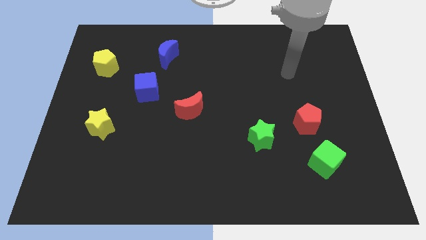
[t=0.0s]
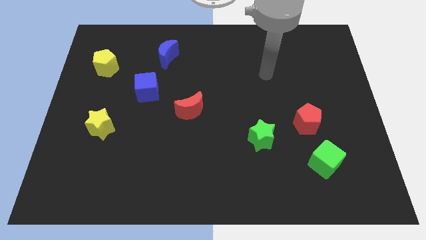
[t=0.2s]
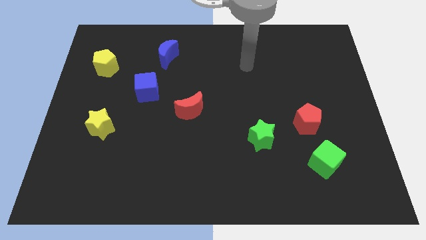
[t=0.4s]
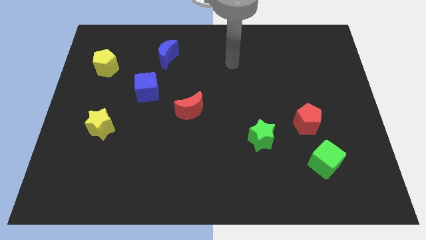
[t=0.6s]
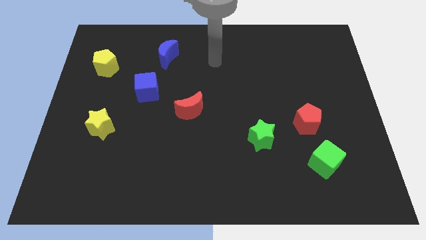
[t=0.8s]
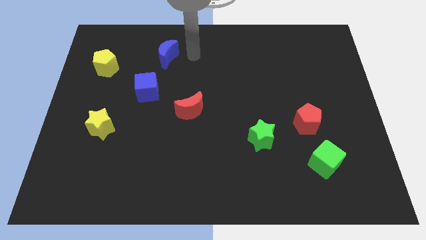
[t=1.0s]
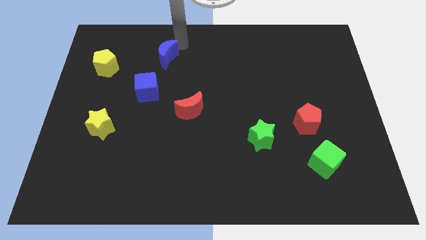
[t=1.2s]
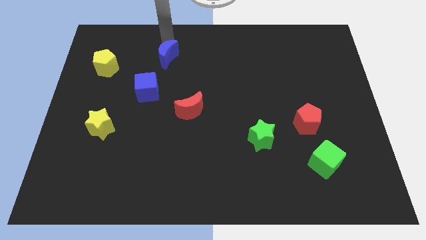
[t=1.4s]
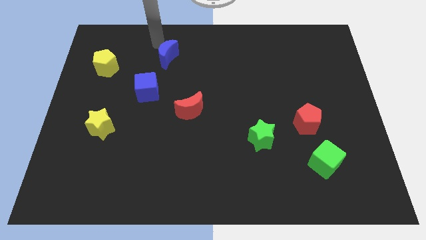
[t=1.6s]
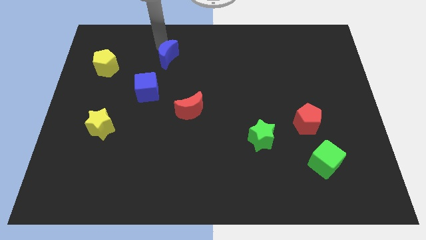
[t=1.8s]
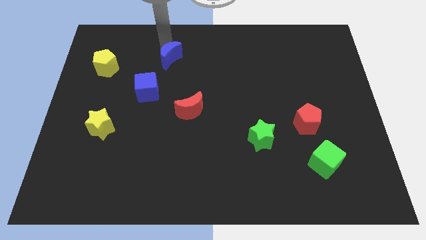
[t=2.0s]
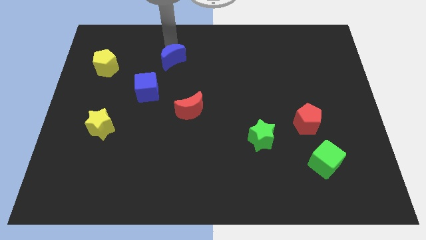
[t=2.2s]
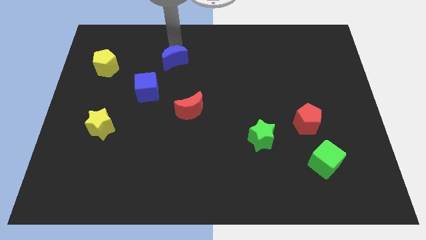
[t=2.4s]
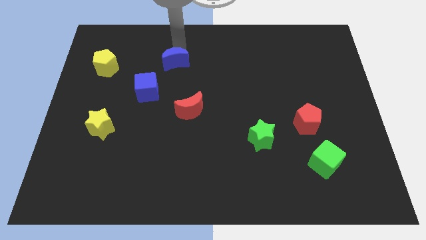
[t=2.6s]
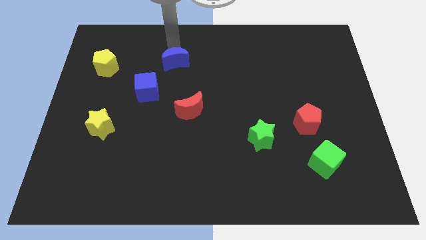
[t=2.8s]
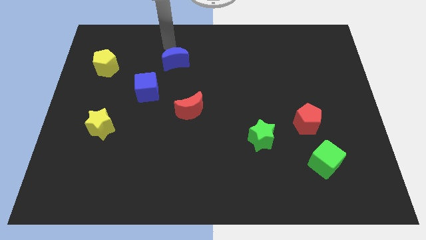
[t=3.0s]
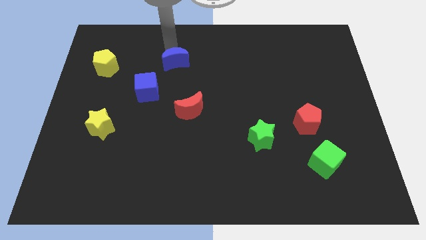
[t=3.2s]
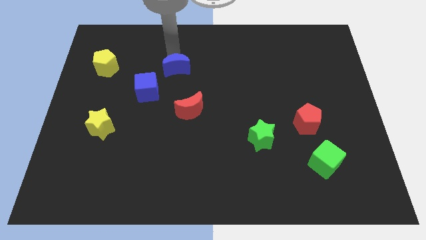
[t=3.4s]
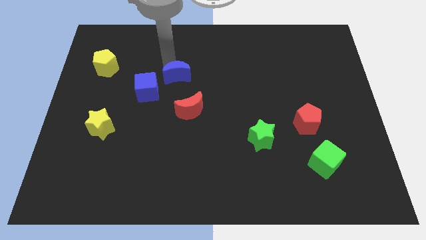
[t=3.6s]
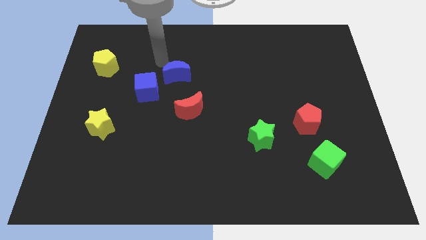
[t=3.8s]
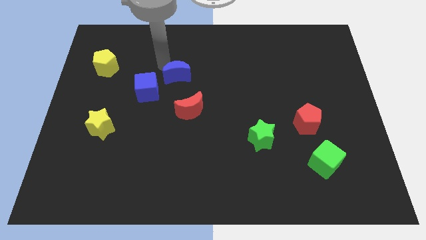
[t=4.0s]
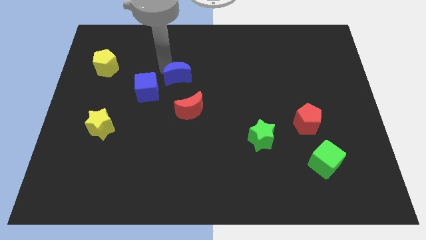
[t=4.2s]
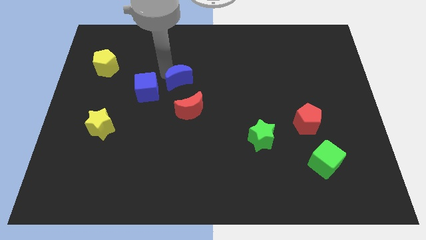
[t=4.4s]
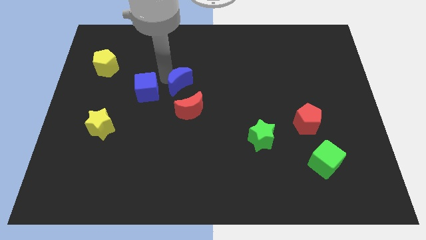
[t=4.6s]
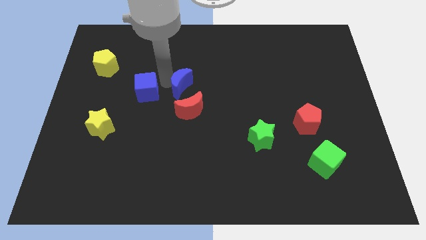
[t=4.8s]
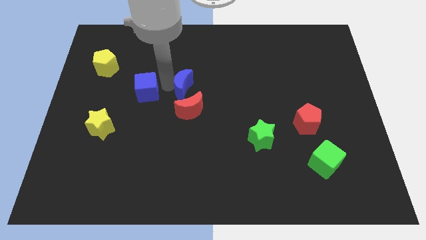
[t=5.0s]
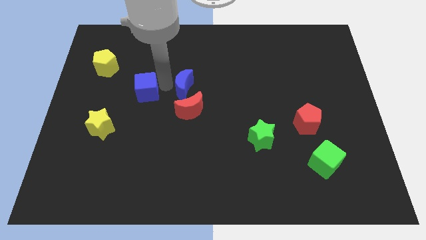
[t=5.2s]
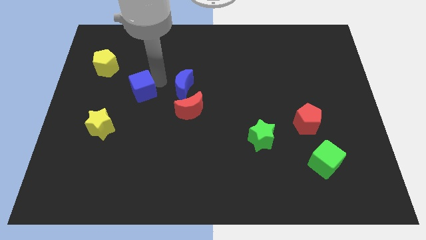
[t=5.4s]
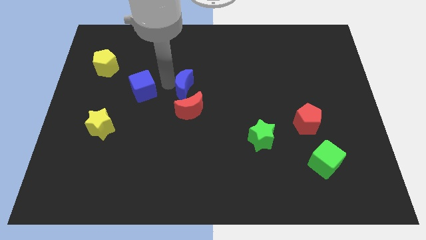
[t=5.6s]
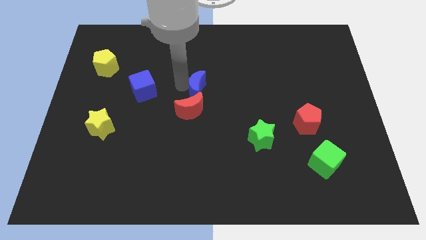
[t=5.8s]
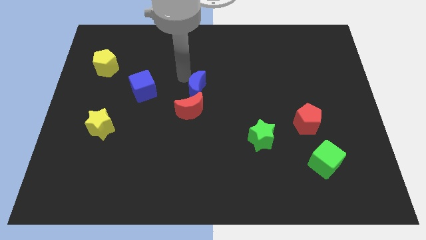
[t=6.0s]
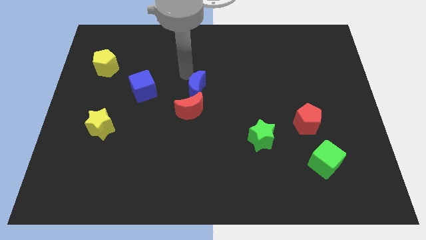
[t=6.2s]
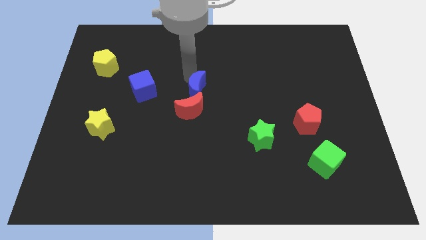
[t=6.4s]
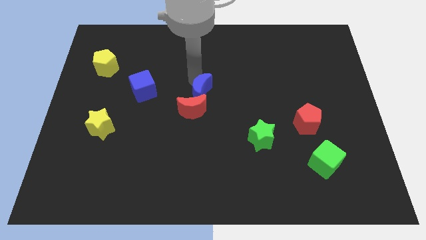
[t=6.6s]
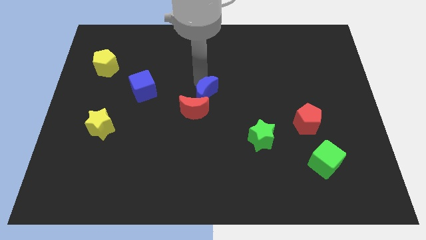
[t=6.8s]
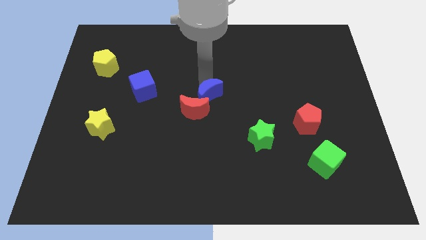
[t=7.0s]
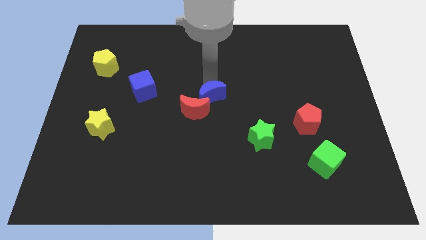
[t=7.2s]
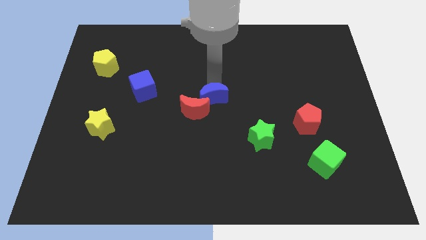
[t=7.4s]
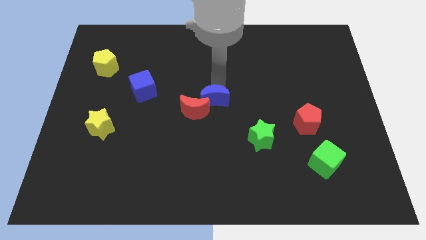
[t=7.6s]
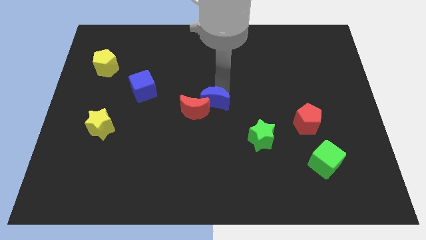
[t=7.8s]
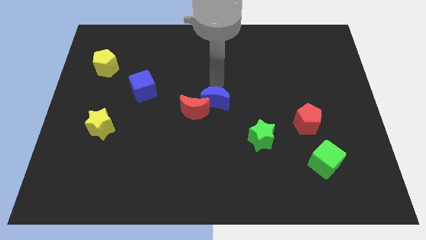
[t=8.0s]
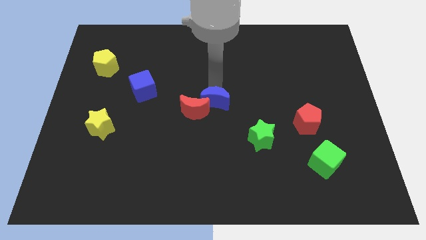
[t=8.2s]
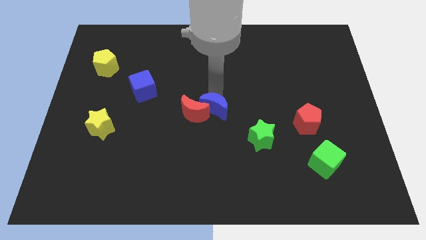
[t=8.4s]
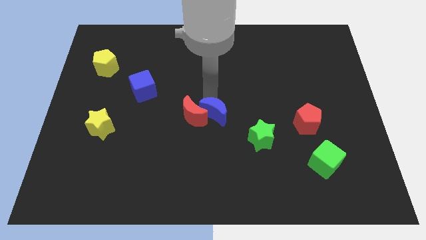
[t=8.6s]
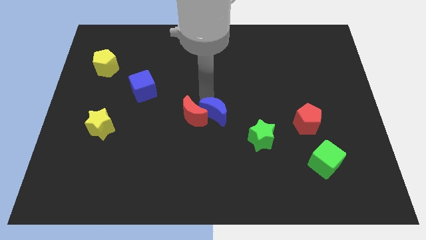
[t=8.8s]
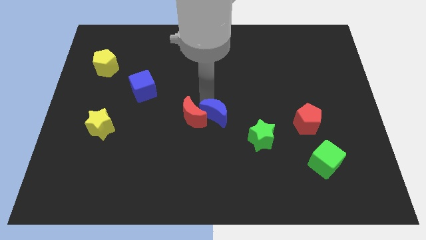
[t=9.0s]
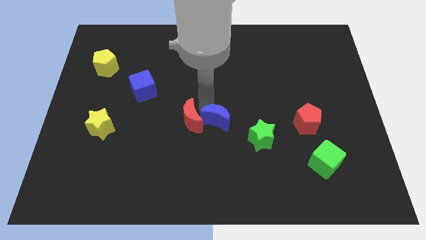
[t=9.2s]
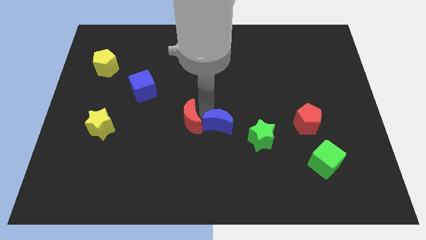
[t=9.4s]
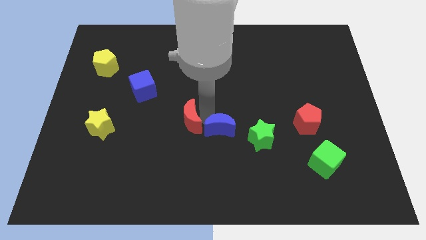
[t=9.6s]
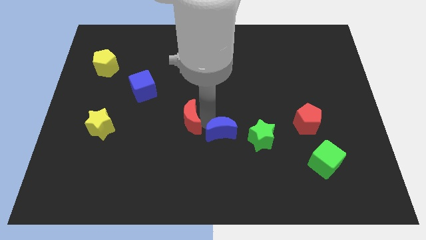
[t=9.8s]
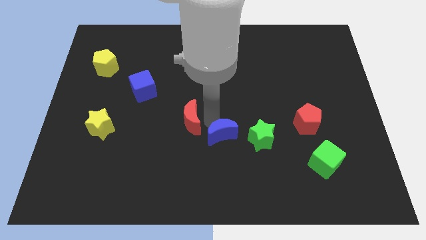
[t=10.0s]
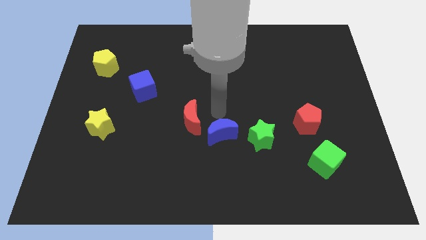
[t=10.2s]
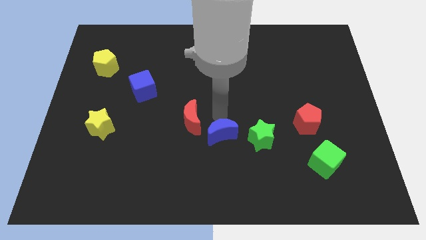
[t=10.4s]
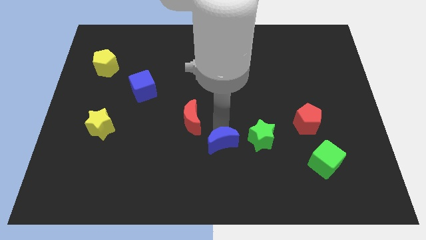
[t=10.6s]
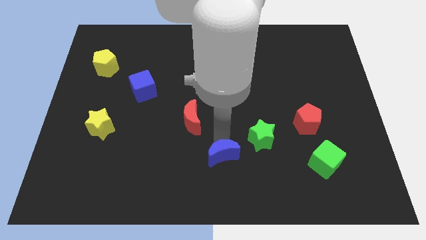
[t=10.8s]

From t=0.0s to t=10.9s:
push the blue moon to the bottom

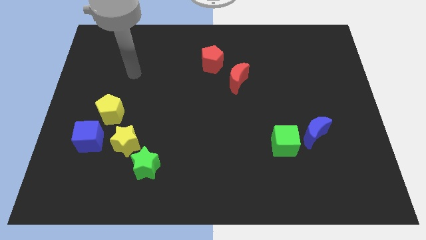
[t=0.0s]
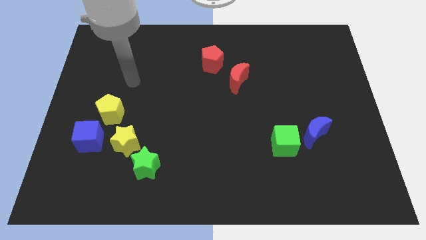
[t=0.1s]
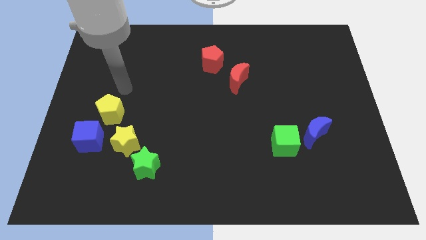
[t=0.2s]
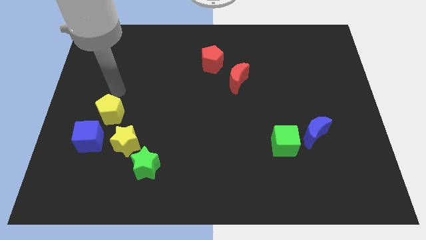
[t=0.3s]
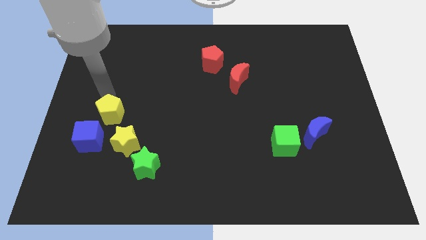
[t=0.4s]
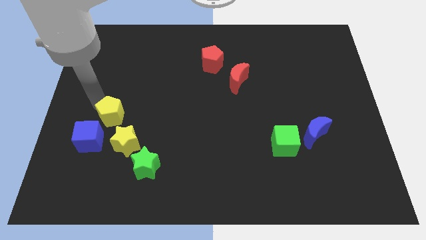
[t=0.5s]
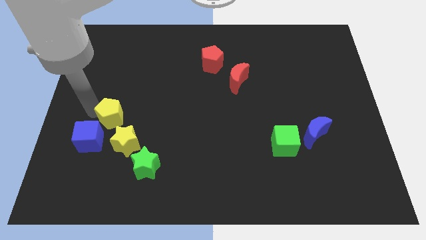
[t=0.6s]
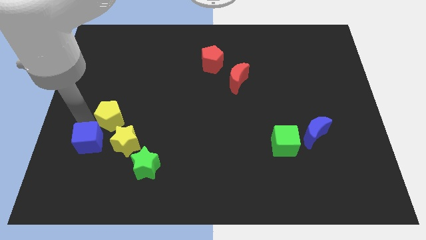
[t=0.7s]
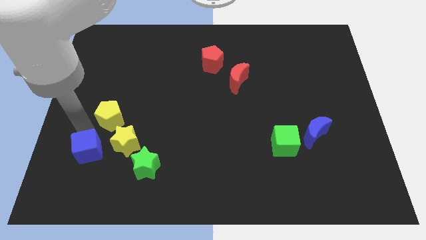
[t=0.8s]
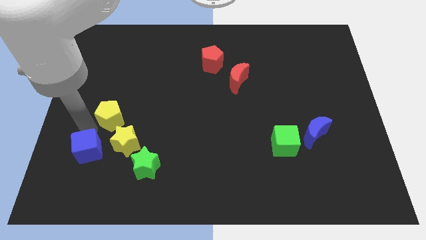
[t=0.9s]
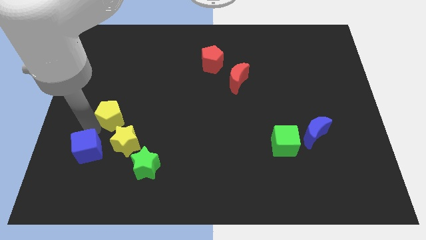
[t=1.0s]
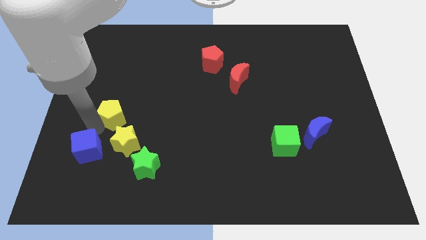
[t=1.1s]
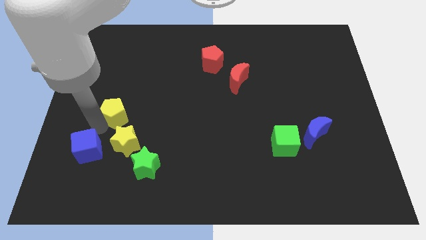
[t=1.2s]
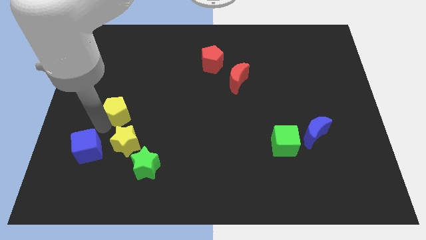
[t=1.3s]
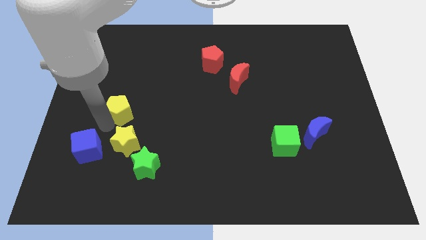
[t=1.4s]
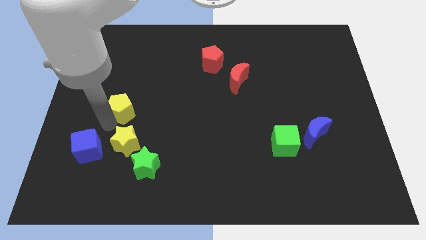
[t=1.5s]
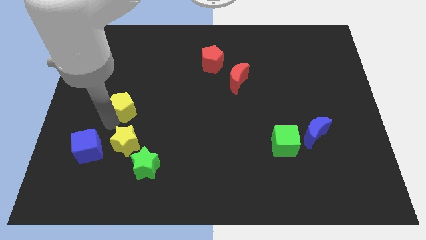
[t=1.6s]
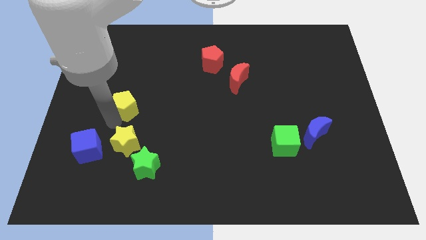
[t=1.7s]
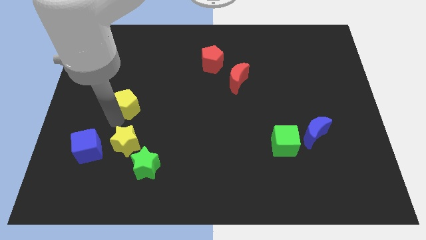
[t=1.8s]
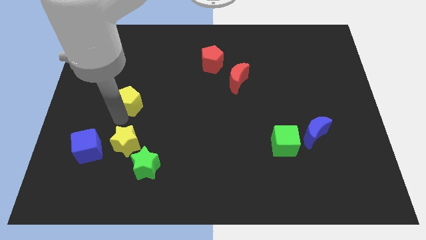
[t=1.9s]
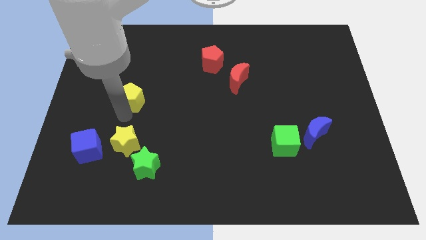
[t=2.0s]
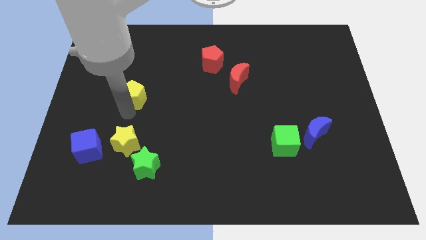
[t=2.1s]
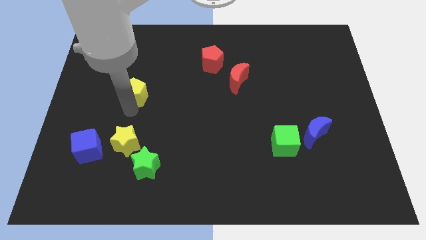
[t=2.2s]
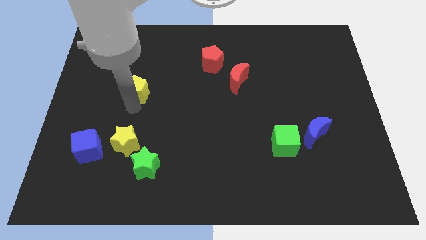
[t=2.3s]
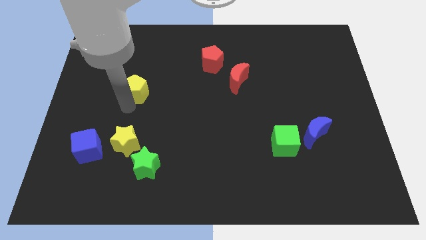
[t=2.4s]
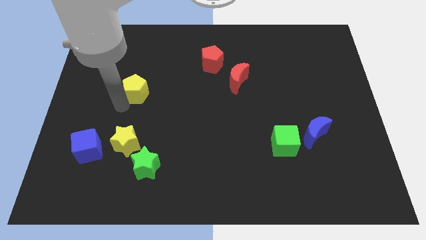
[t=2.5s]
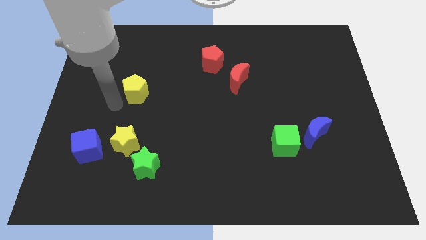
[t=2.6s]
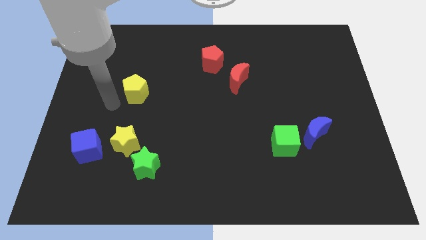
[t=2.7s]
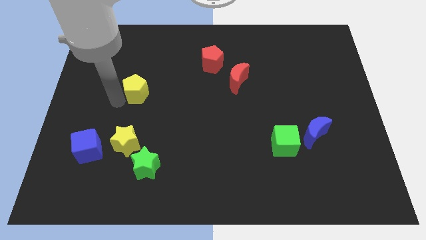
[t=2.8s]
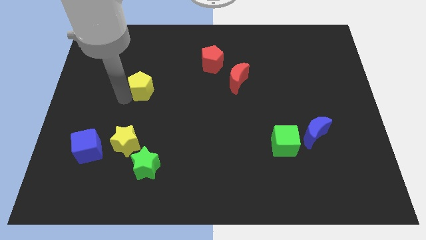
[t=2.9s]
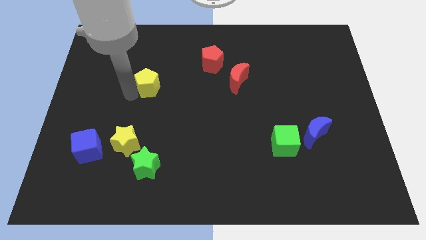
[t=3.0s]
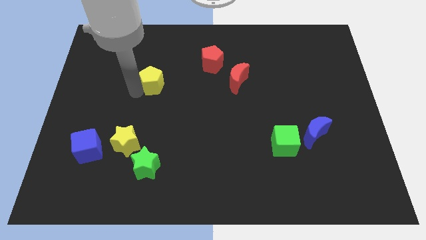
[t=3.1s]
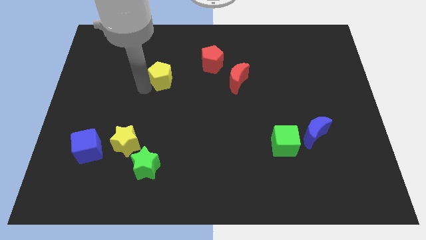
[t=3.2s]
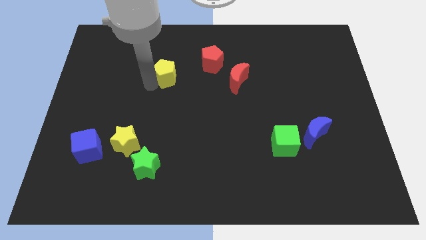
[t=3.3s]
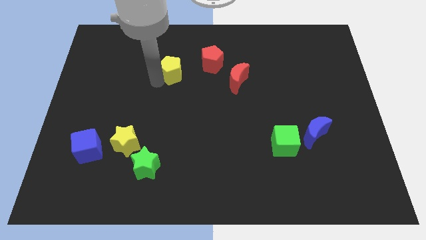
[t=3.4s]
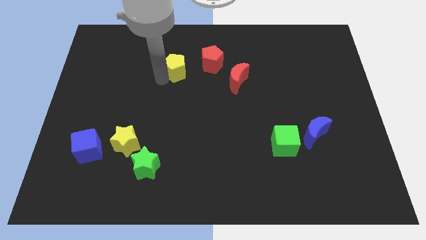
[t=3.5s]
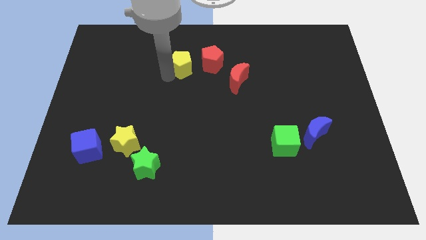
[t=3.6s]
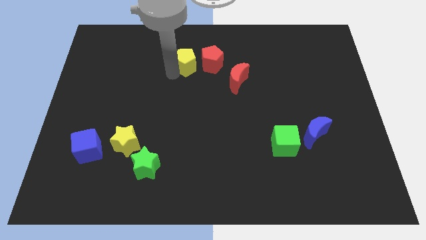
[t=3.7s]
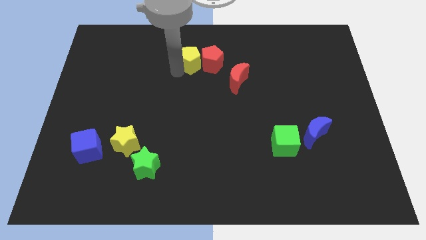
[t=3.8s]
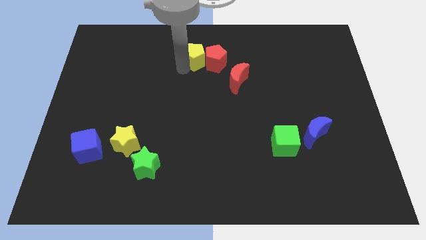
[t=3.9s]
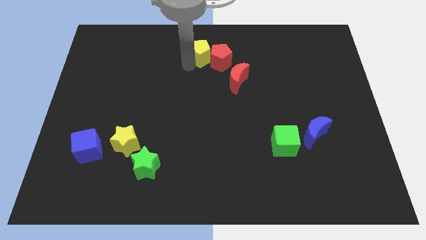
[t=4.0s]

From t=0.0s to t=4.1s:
move the yellow pentagon to the top side
